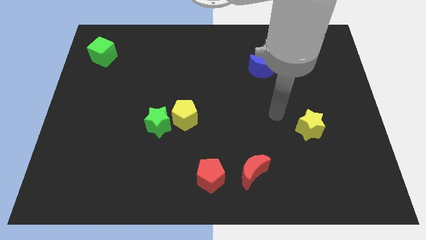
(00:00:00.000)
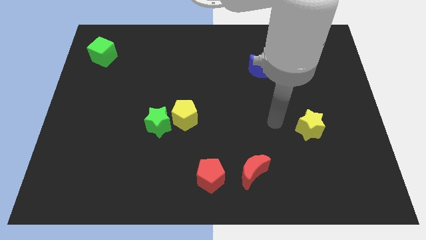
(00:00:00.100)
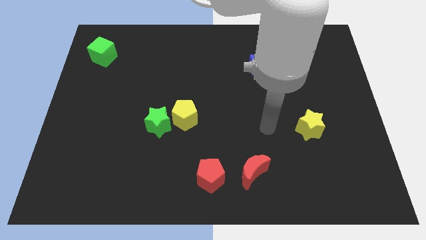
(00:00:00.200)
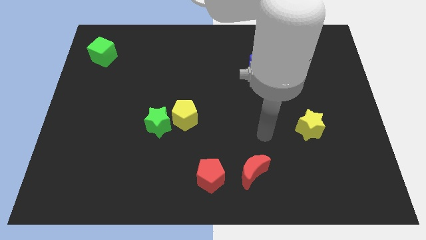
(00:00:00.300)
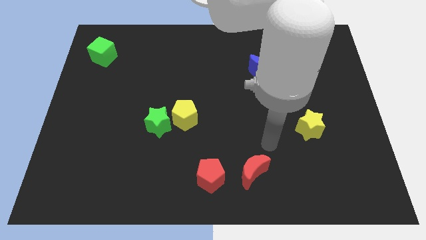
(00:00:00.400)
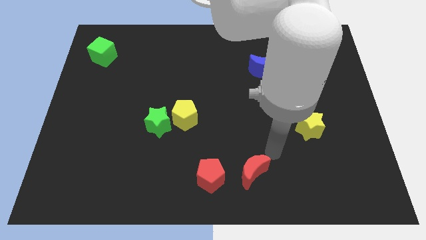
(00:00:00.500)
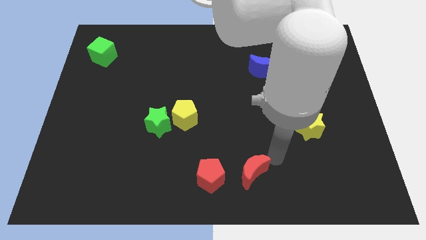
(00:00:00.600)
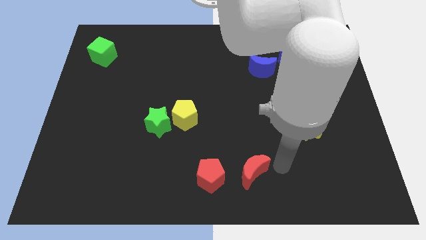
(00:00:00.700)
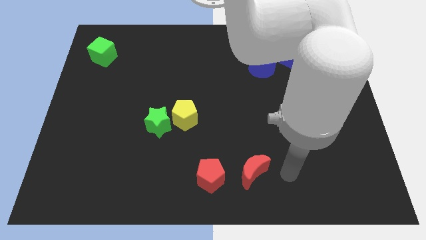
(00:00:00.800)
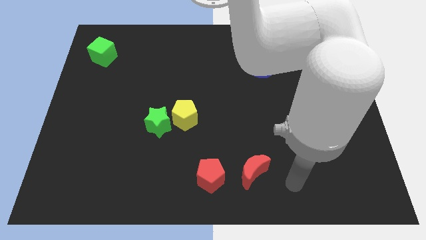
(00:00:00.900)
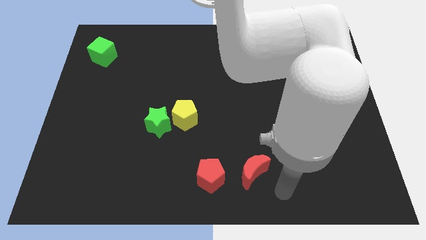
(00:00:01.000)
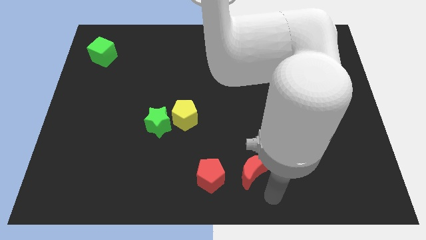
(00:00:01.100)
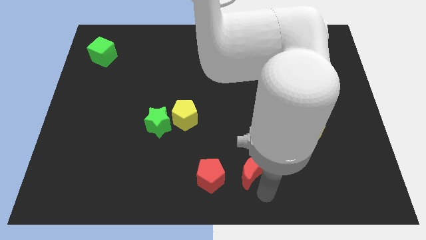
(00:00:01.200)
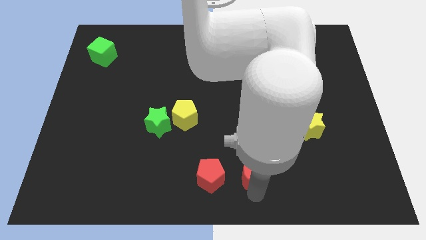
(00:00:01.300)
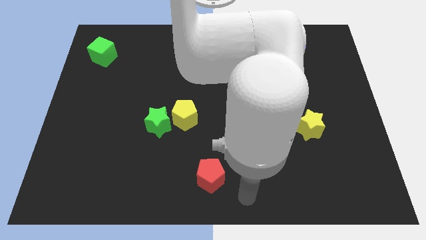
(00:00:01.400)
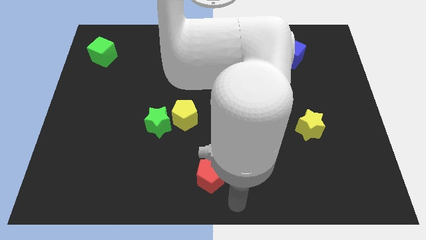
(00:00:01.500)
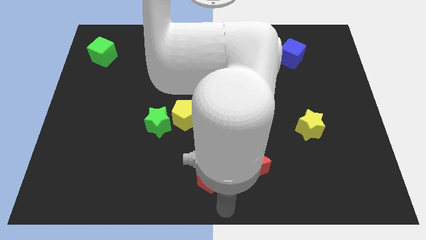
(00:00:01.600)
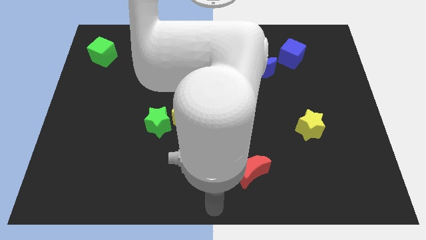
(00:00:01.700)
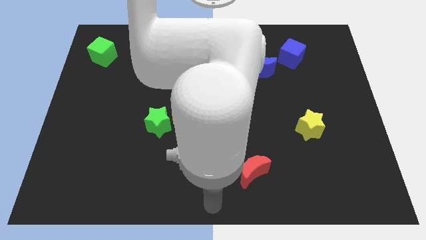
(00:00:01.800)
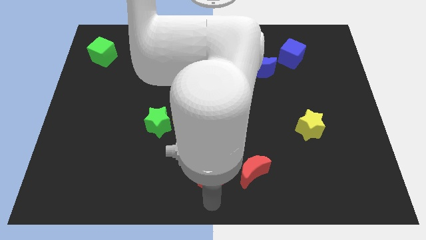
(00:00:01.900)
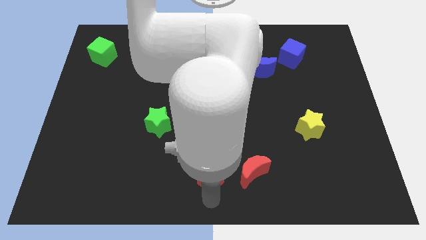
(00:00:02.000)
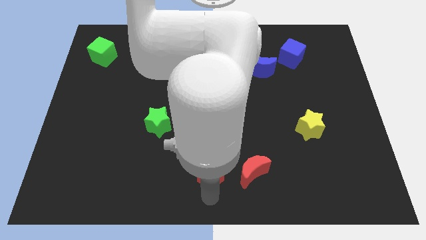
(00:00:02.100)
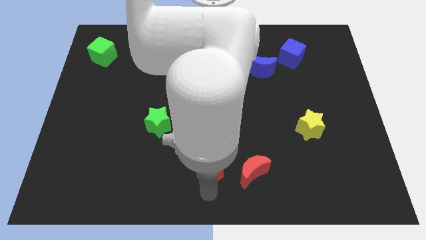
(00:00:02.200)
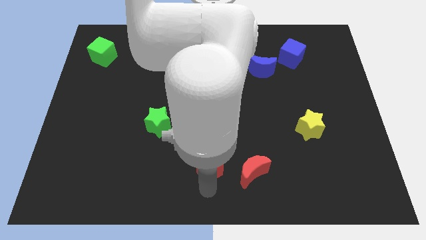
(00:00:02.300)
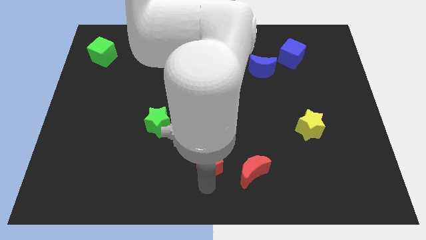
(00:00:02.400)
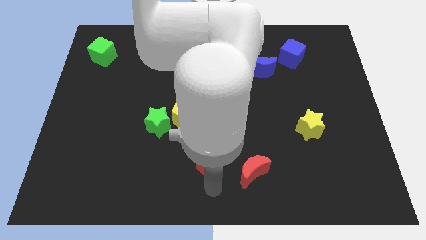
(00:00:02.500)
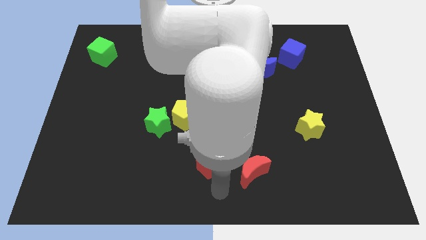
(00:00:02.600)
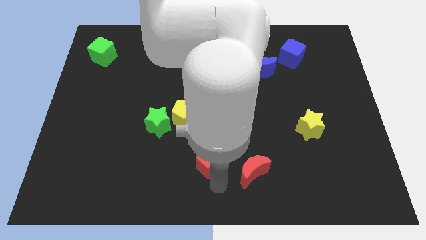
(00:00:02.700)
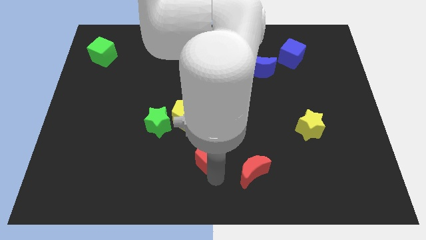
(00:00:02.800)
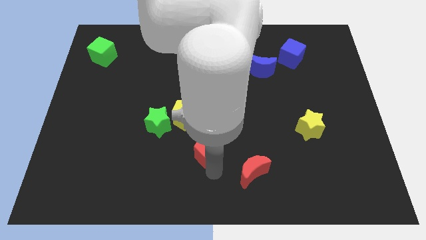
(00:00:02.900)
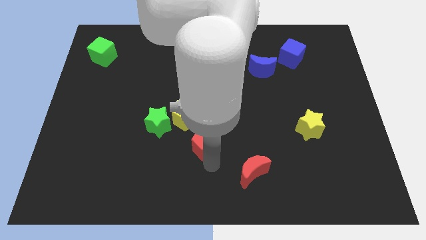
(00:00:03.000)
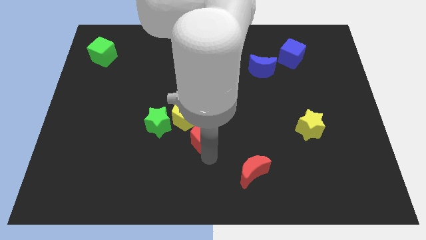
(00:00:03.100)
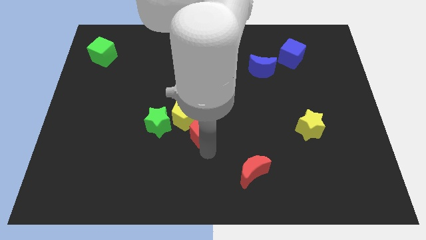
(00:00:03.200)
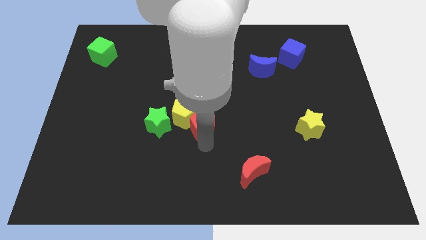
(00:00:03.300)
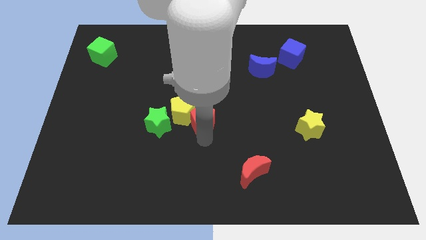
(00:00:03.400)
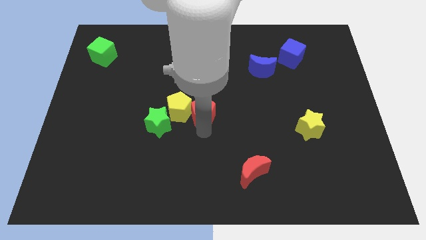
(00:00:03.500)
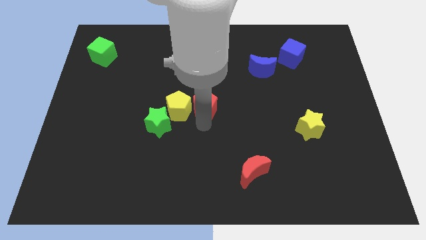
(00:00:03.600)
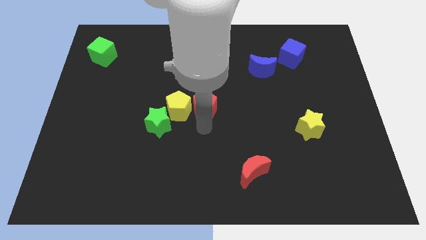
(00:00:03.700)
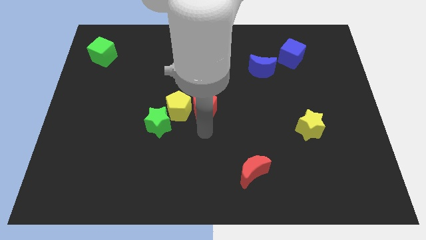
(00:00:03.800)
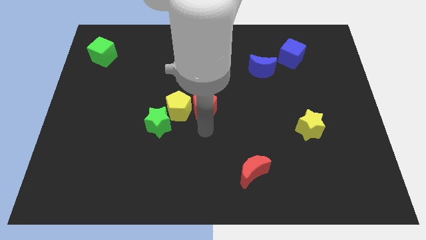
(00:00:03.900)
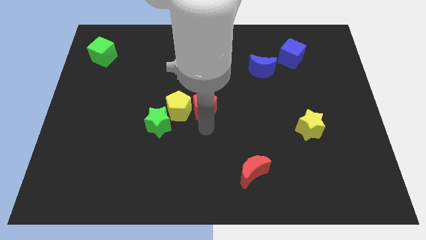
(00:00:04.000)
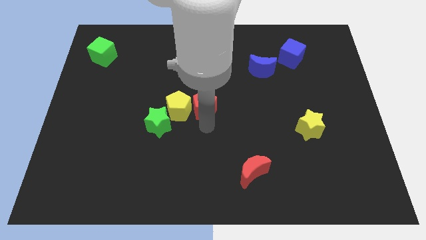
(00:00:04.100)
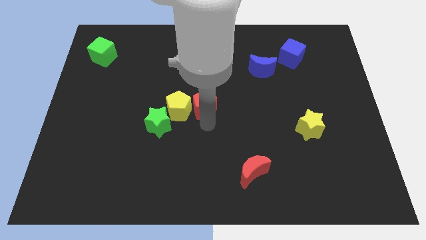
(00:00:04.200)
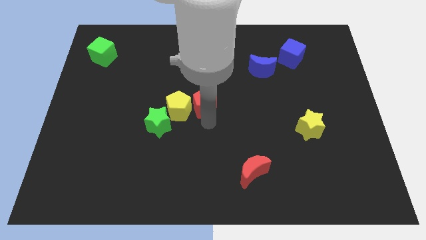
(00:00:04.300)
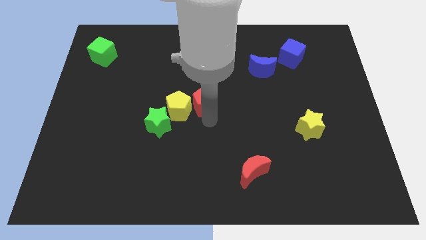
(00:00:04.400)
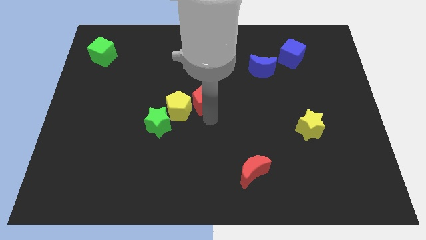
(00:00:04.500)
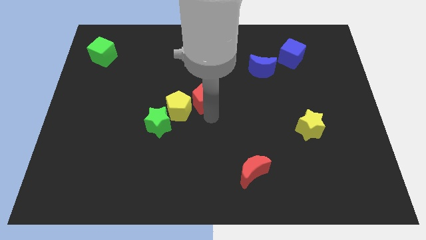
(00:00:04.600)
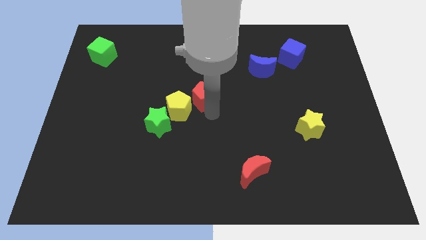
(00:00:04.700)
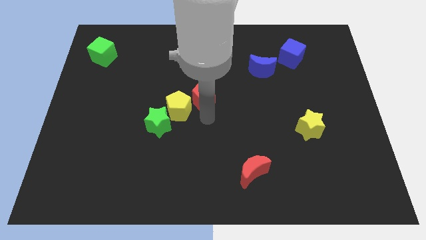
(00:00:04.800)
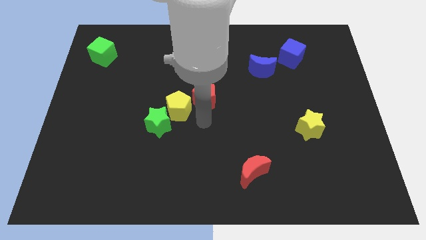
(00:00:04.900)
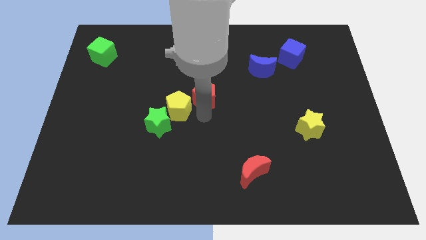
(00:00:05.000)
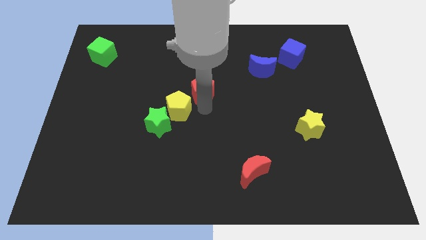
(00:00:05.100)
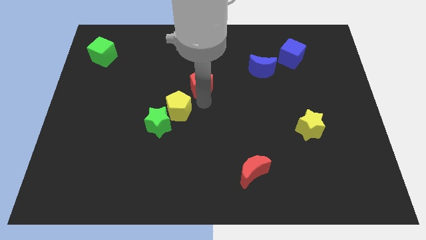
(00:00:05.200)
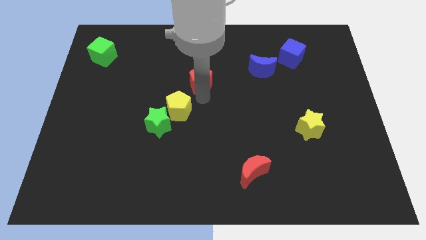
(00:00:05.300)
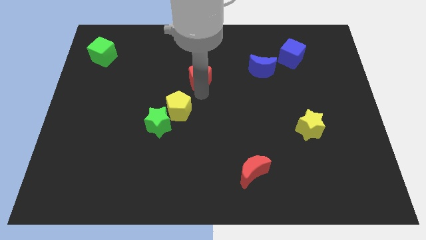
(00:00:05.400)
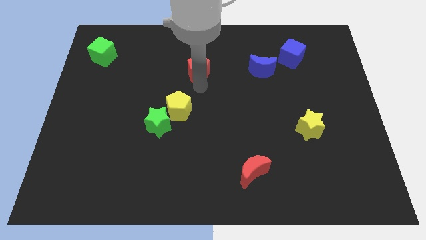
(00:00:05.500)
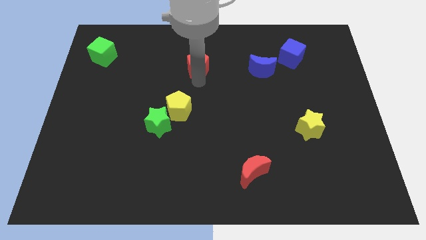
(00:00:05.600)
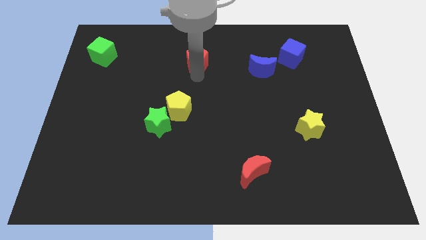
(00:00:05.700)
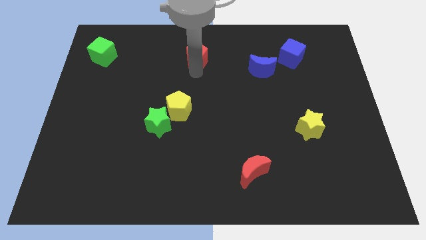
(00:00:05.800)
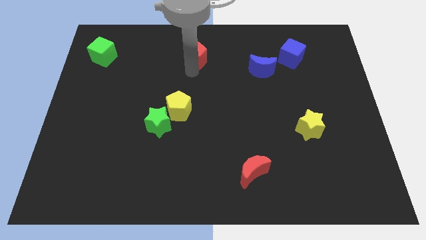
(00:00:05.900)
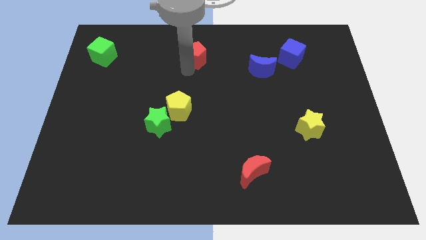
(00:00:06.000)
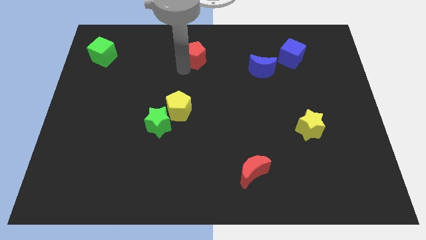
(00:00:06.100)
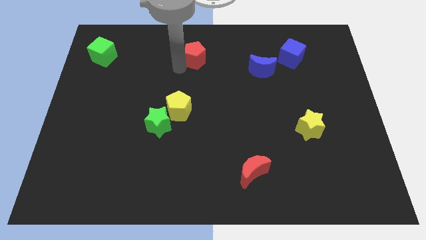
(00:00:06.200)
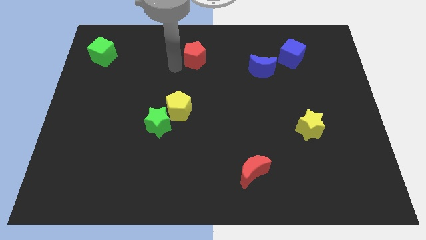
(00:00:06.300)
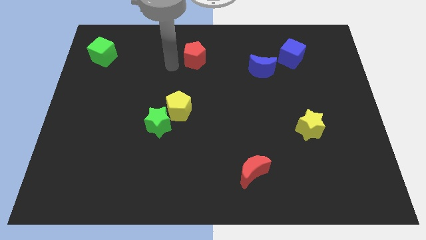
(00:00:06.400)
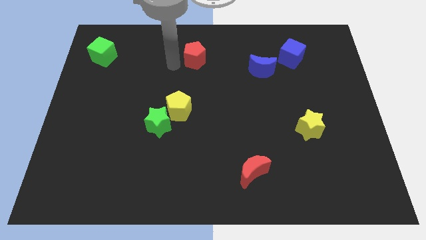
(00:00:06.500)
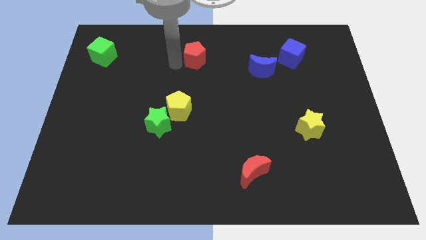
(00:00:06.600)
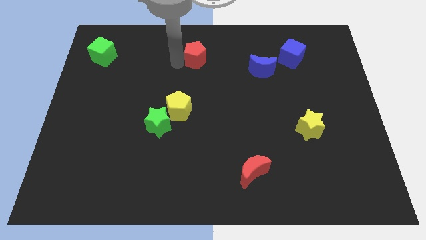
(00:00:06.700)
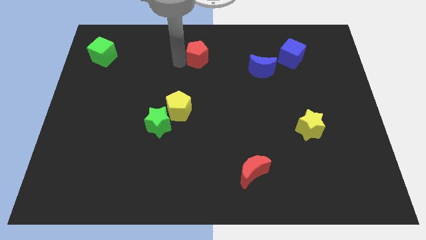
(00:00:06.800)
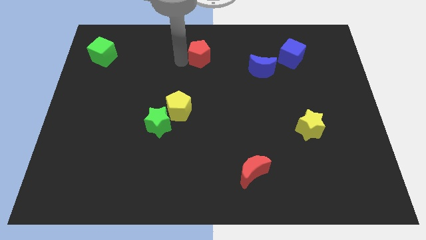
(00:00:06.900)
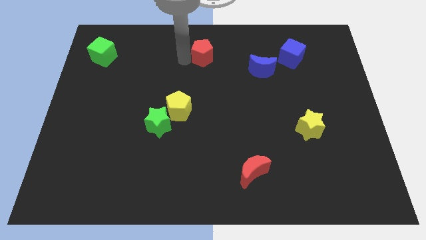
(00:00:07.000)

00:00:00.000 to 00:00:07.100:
push the red pentagon to the towards your base
